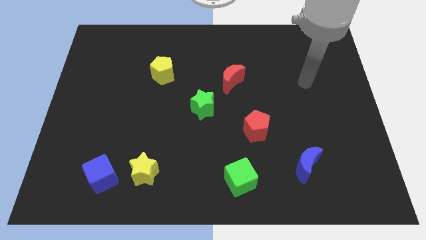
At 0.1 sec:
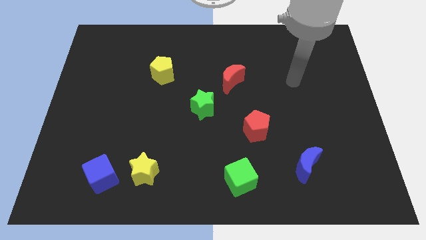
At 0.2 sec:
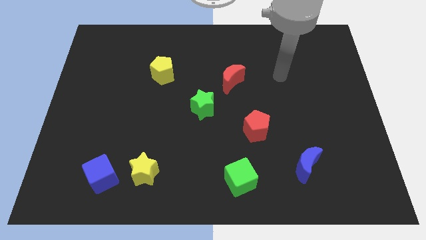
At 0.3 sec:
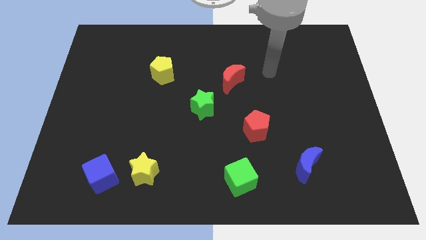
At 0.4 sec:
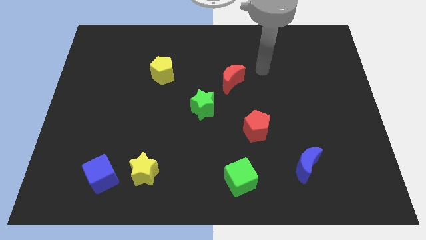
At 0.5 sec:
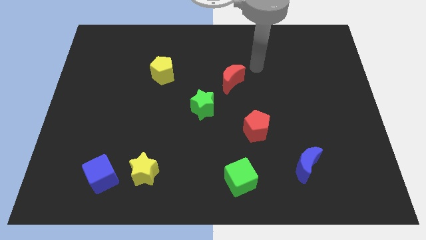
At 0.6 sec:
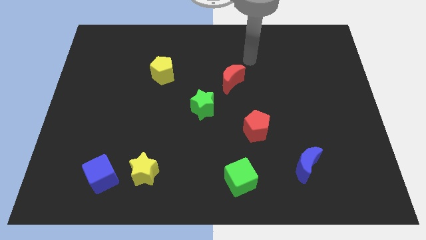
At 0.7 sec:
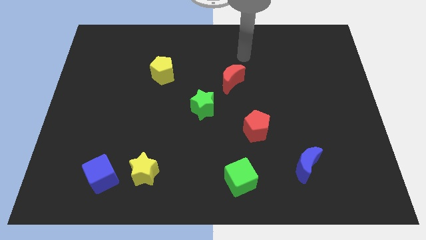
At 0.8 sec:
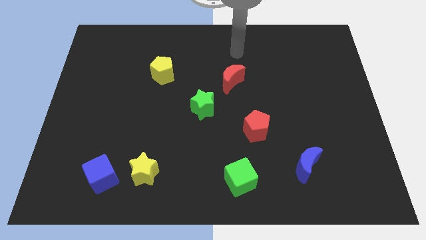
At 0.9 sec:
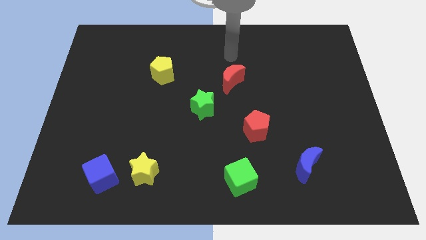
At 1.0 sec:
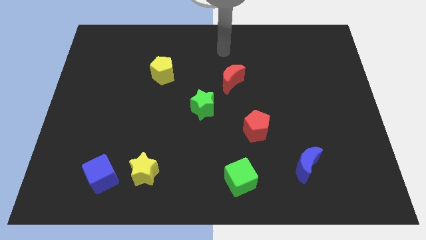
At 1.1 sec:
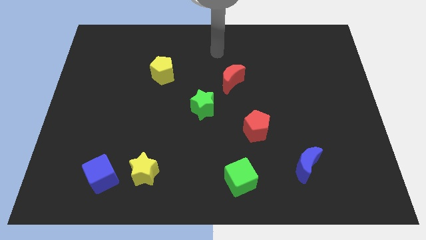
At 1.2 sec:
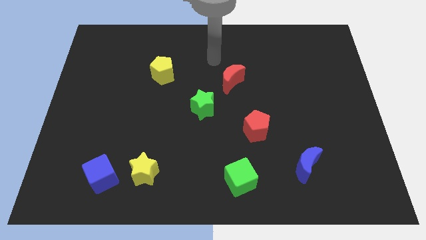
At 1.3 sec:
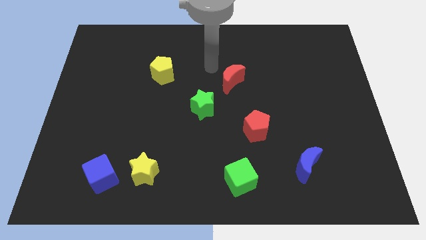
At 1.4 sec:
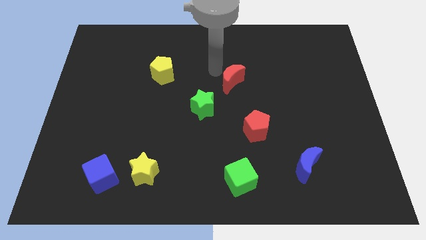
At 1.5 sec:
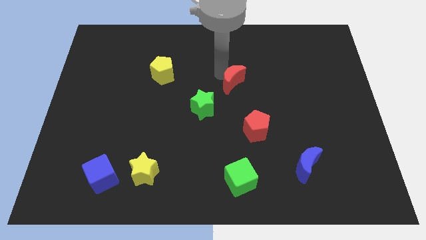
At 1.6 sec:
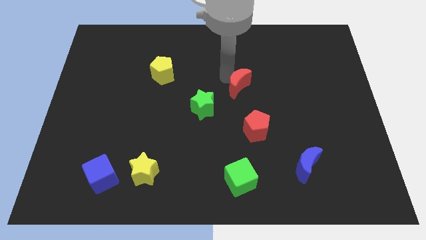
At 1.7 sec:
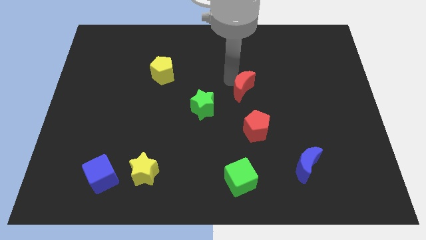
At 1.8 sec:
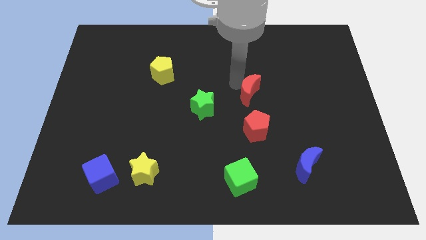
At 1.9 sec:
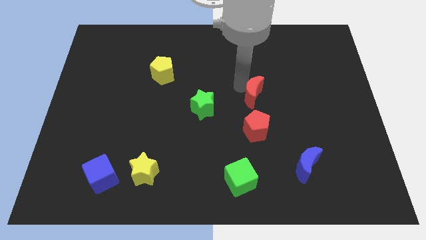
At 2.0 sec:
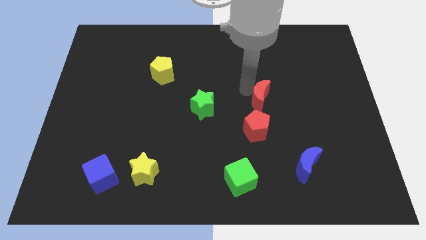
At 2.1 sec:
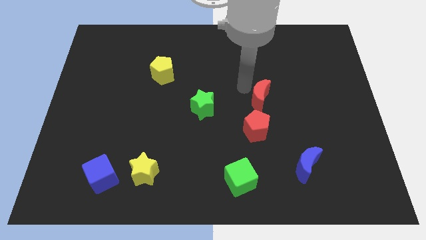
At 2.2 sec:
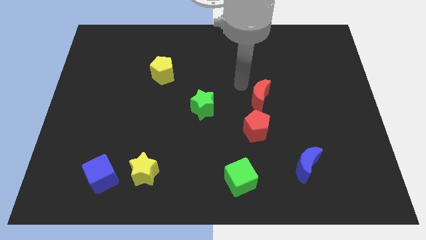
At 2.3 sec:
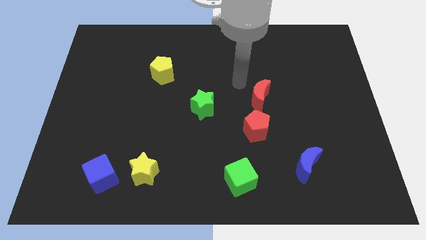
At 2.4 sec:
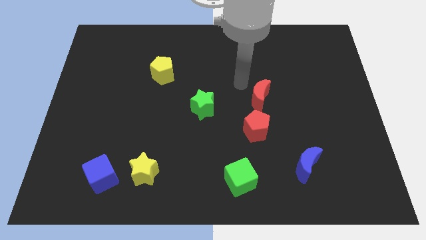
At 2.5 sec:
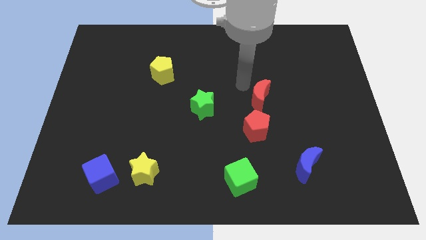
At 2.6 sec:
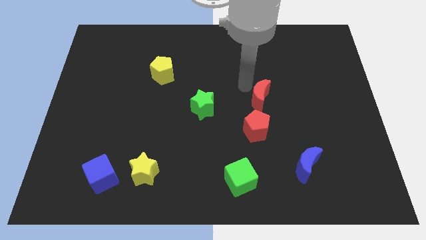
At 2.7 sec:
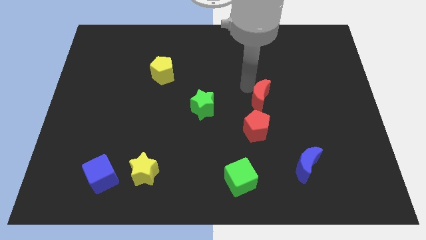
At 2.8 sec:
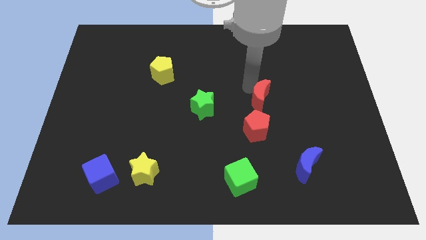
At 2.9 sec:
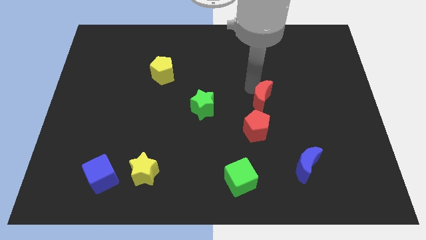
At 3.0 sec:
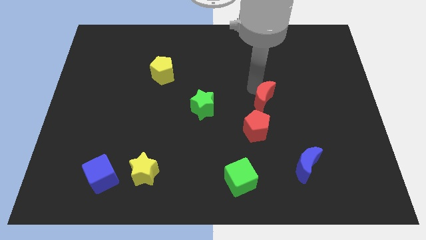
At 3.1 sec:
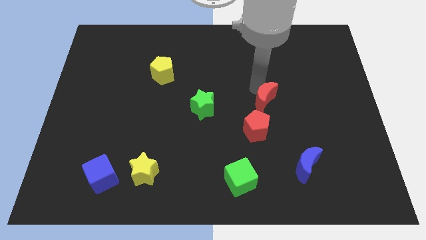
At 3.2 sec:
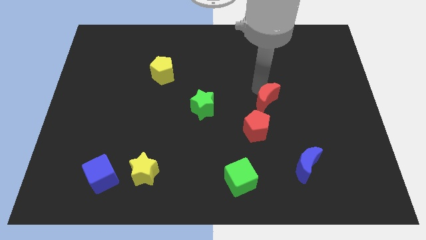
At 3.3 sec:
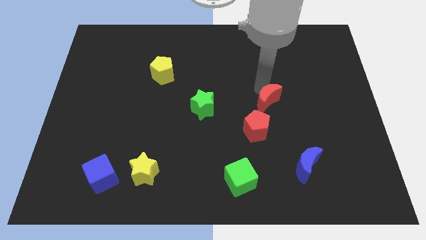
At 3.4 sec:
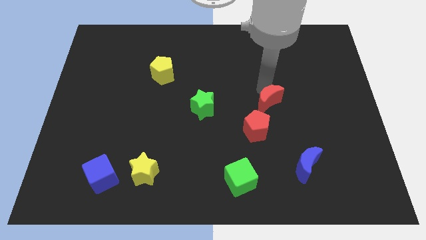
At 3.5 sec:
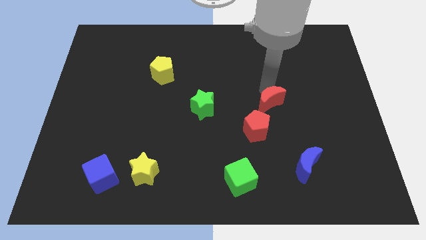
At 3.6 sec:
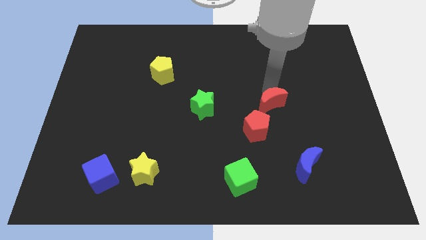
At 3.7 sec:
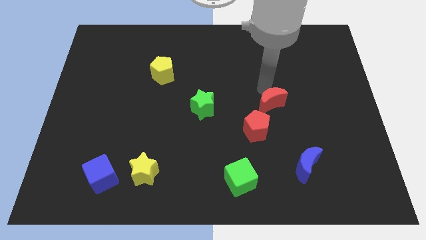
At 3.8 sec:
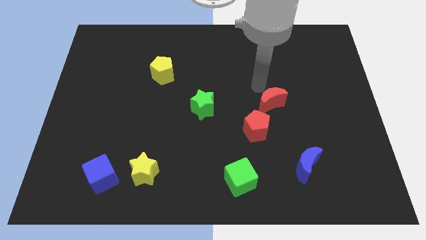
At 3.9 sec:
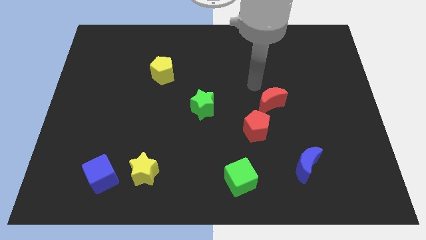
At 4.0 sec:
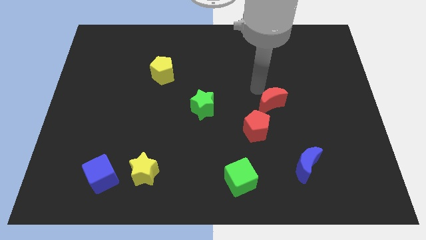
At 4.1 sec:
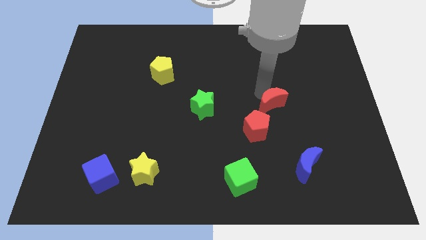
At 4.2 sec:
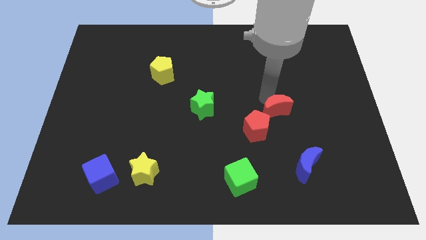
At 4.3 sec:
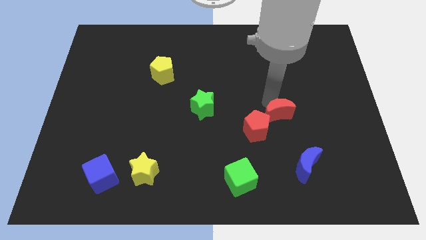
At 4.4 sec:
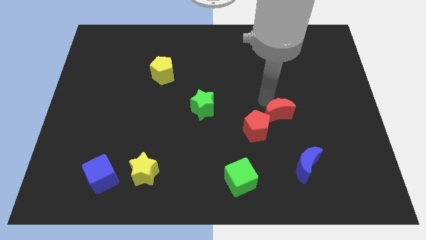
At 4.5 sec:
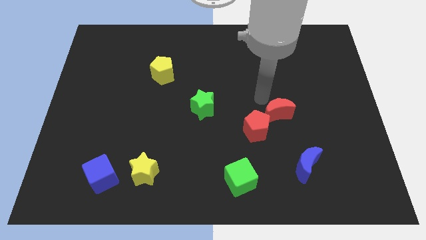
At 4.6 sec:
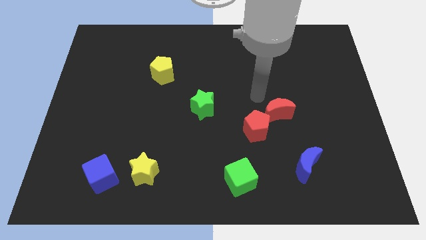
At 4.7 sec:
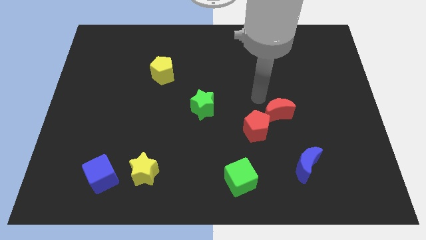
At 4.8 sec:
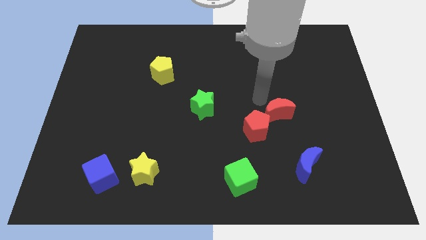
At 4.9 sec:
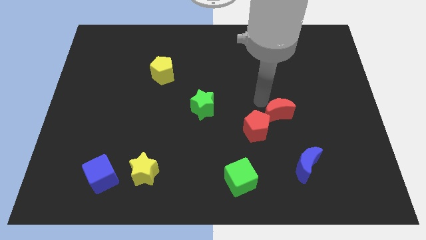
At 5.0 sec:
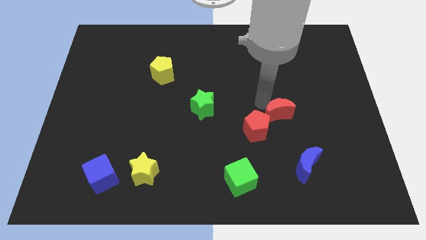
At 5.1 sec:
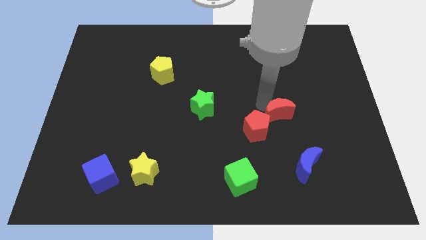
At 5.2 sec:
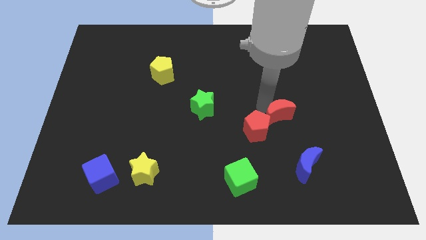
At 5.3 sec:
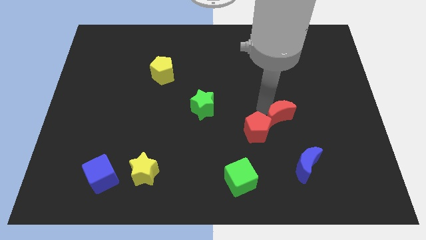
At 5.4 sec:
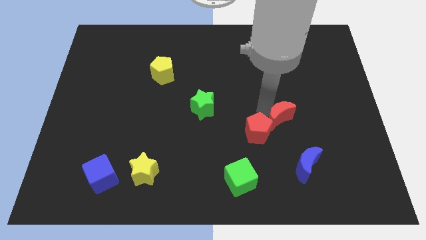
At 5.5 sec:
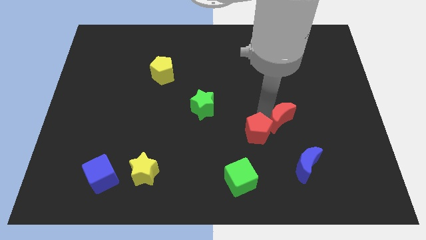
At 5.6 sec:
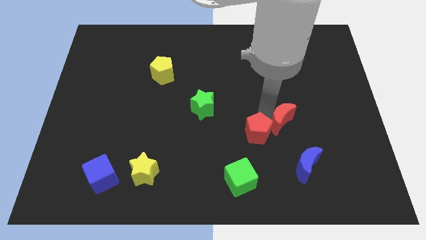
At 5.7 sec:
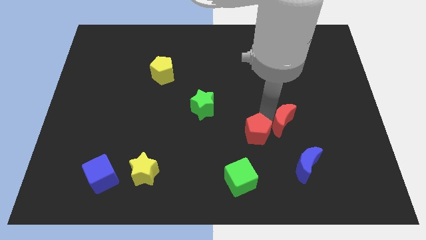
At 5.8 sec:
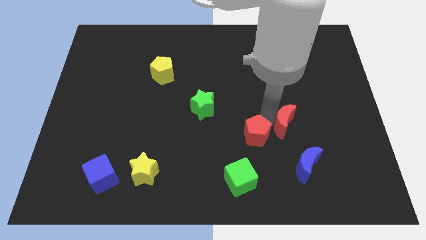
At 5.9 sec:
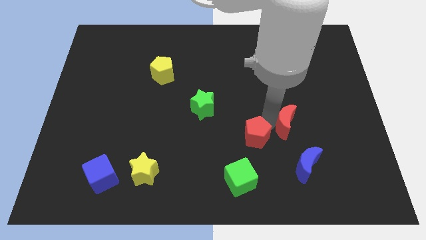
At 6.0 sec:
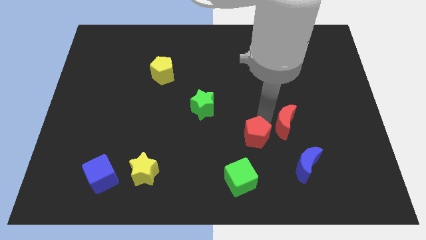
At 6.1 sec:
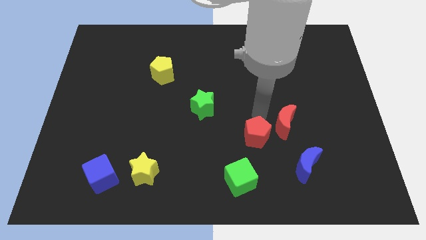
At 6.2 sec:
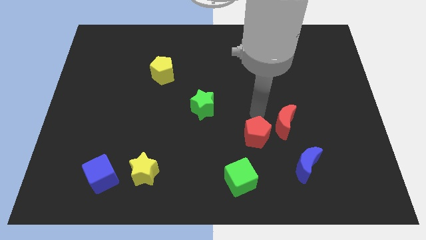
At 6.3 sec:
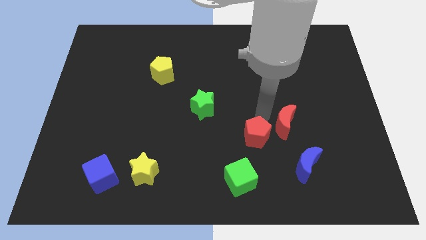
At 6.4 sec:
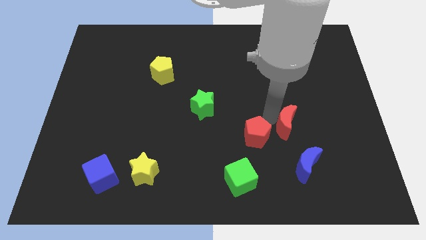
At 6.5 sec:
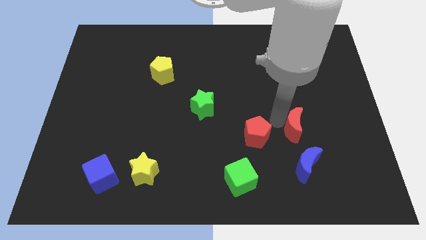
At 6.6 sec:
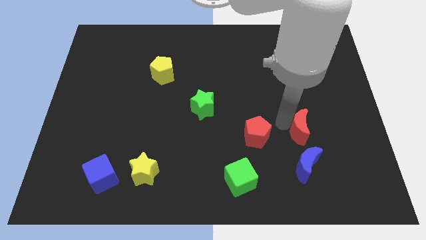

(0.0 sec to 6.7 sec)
push the red moon downwards and right diagonally

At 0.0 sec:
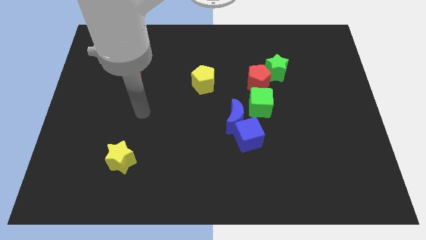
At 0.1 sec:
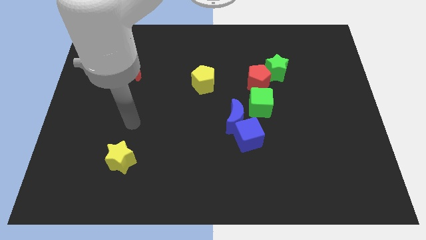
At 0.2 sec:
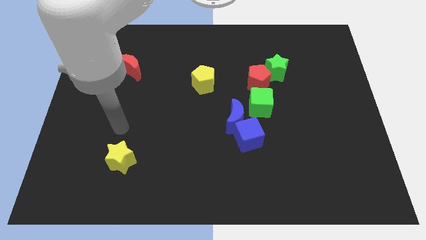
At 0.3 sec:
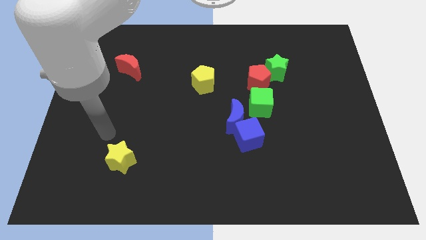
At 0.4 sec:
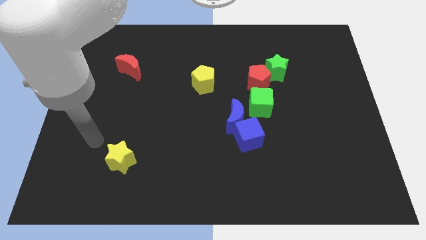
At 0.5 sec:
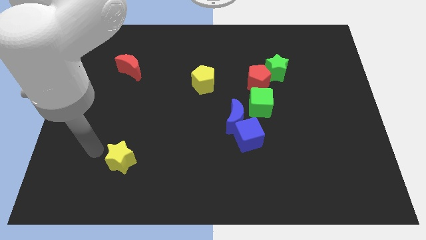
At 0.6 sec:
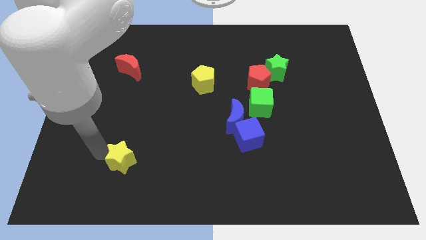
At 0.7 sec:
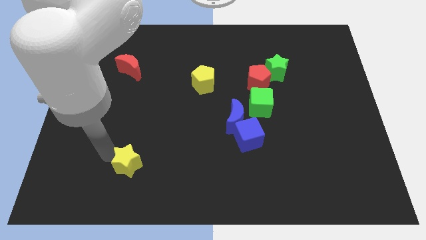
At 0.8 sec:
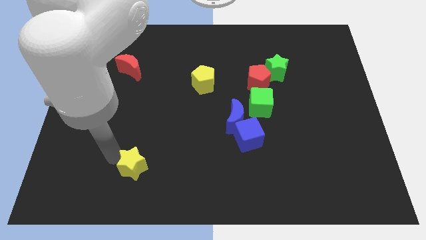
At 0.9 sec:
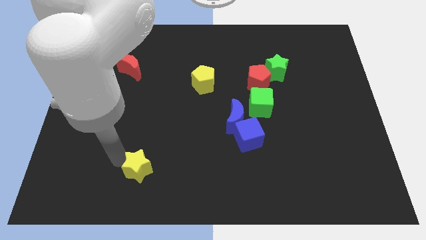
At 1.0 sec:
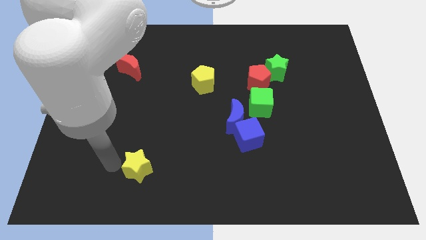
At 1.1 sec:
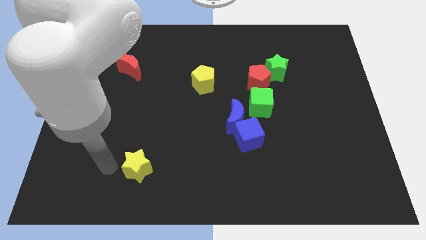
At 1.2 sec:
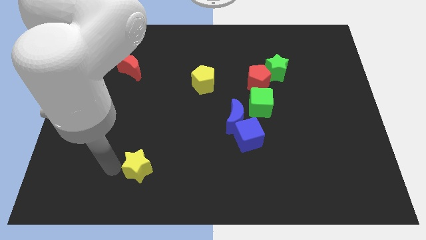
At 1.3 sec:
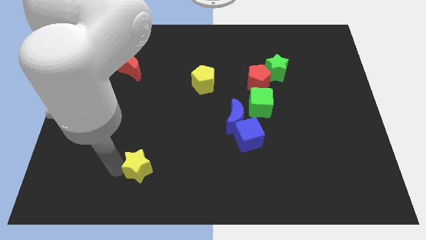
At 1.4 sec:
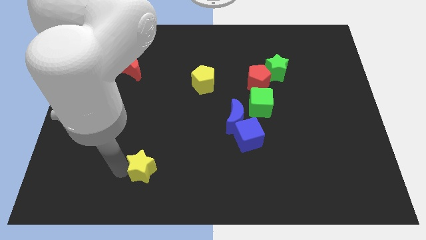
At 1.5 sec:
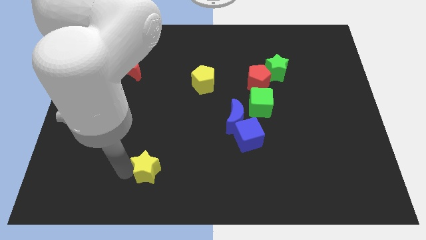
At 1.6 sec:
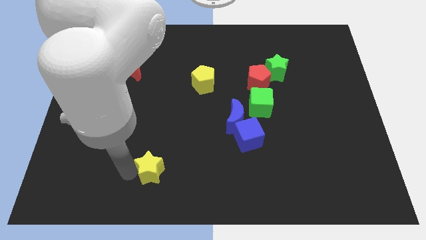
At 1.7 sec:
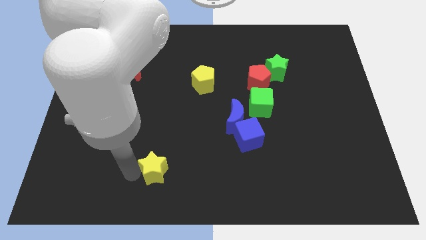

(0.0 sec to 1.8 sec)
move the yellow star a little bit right
